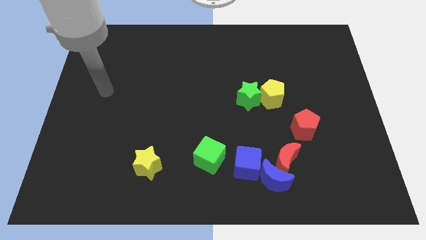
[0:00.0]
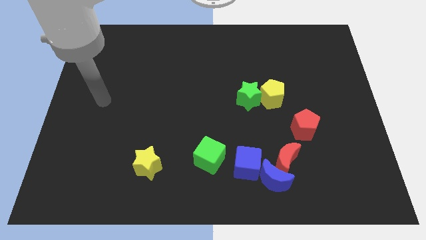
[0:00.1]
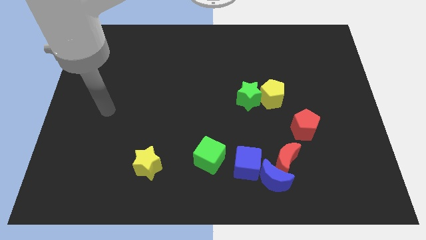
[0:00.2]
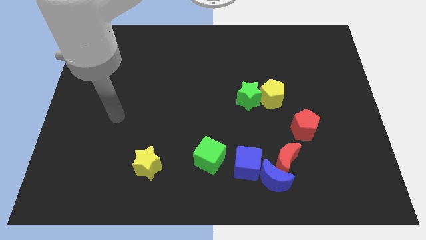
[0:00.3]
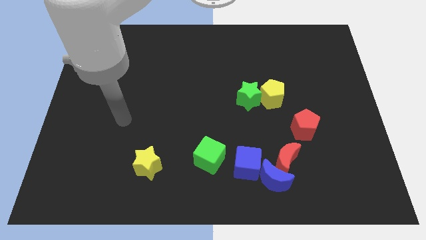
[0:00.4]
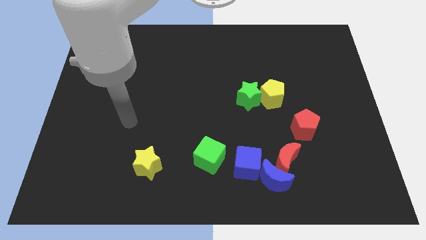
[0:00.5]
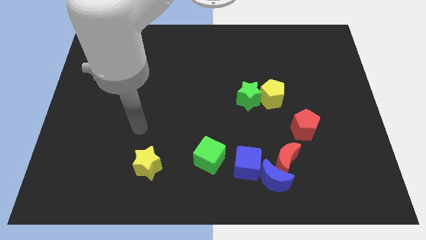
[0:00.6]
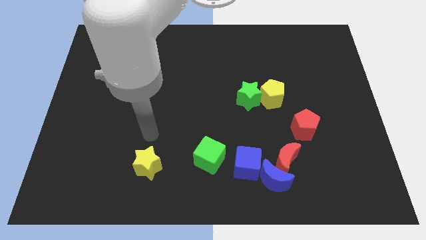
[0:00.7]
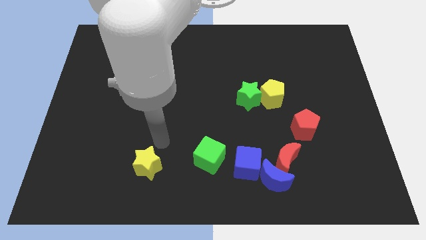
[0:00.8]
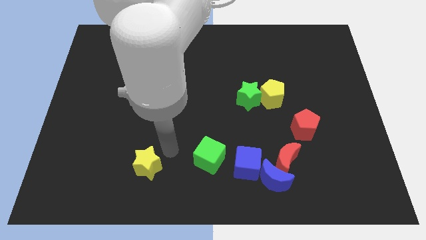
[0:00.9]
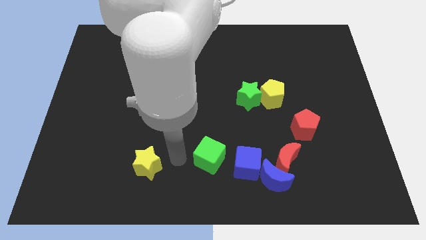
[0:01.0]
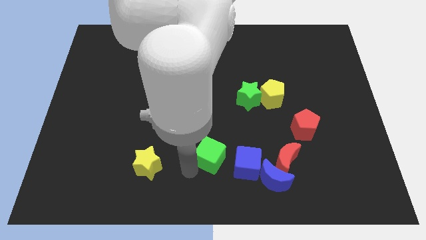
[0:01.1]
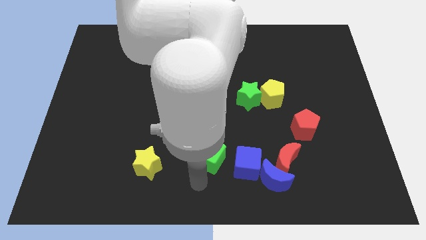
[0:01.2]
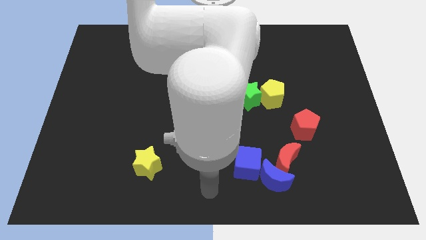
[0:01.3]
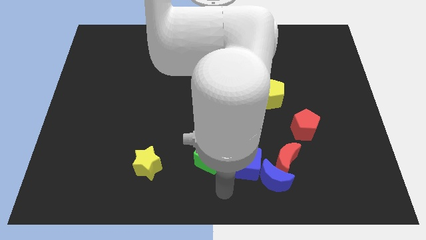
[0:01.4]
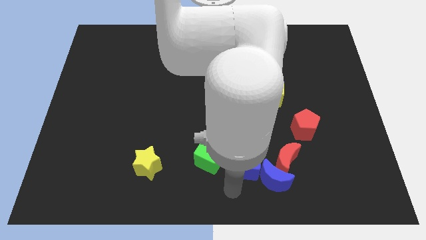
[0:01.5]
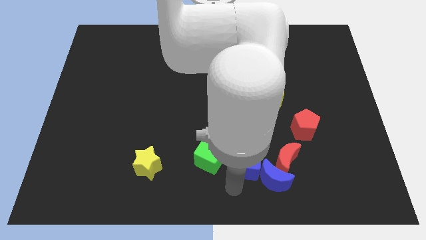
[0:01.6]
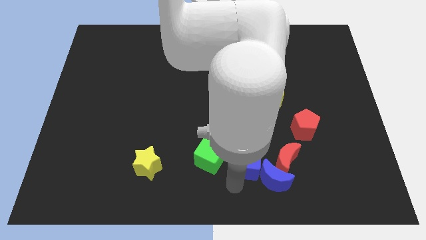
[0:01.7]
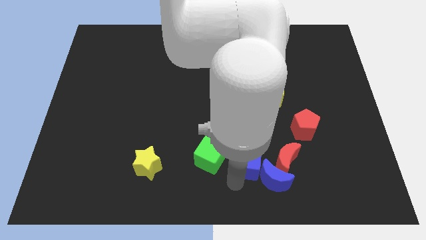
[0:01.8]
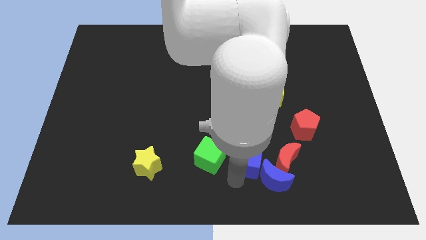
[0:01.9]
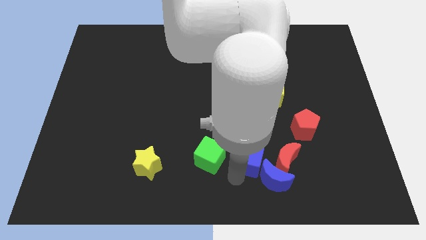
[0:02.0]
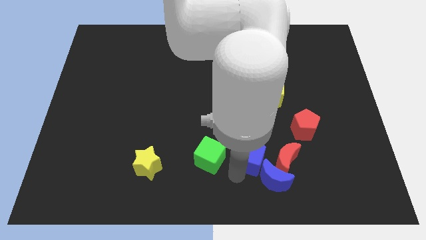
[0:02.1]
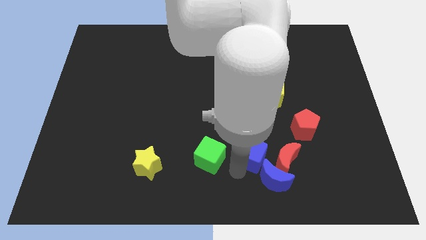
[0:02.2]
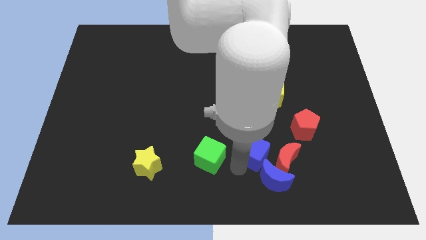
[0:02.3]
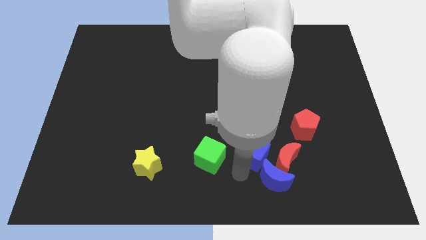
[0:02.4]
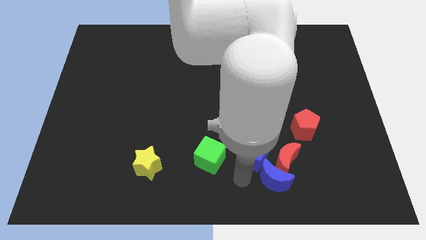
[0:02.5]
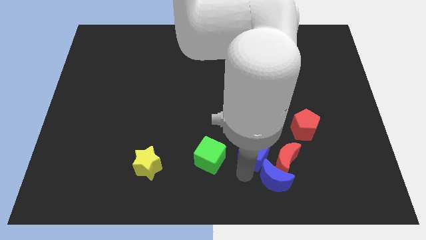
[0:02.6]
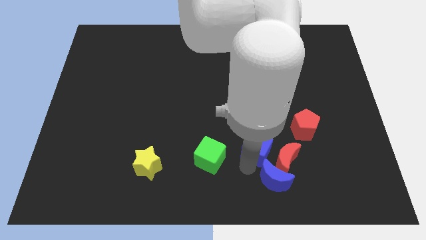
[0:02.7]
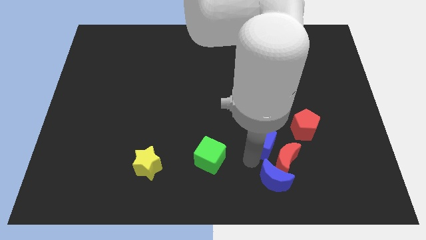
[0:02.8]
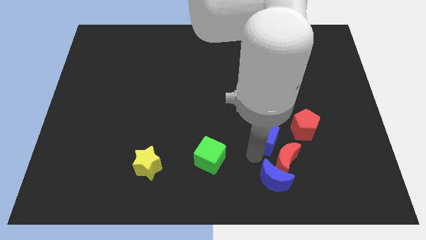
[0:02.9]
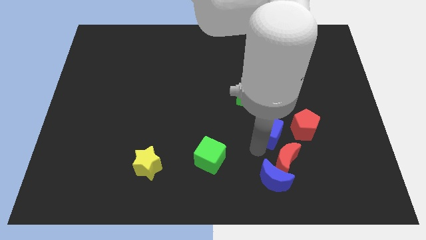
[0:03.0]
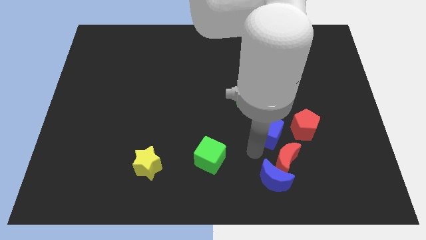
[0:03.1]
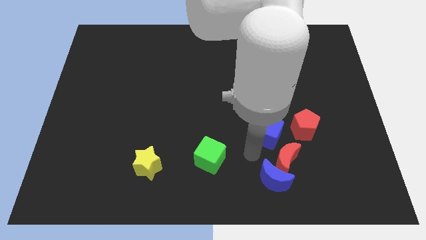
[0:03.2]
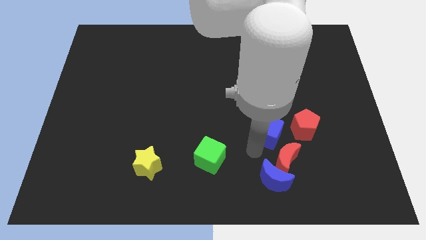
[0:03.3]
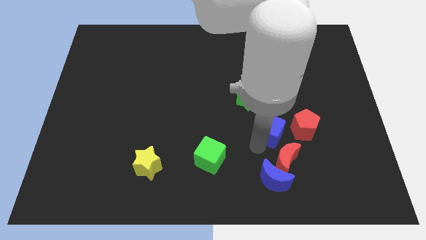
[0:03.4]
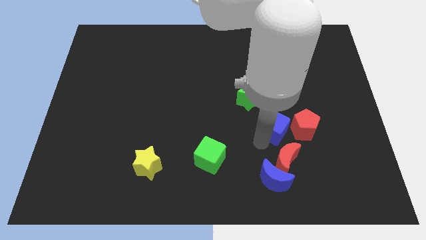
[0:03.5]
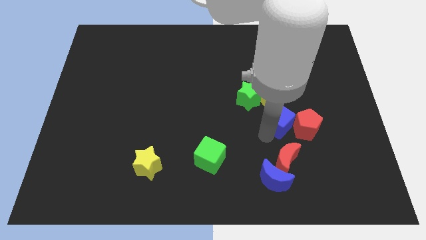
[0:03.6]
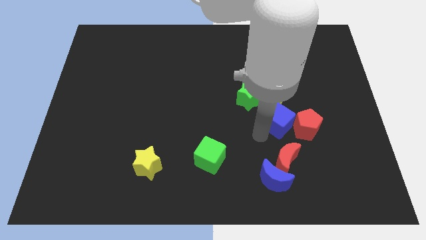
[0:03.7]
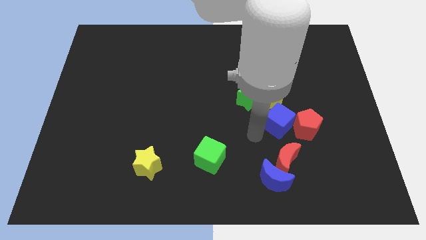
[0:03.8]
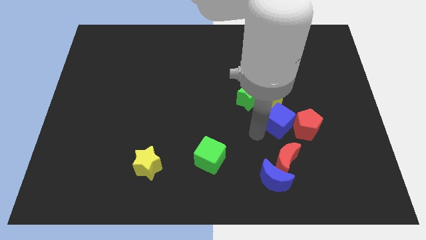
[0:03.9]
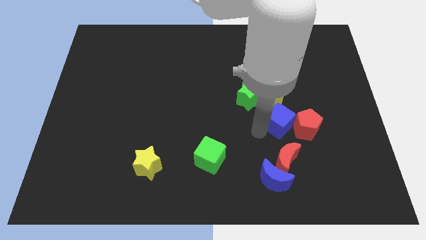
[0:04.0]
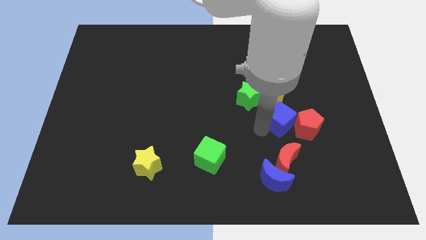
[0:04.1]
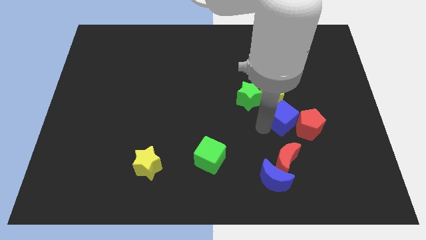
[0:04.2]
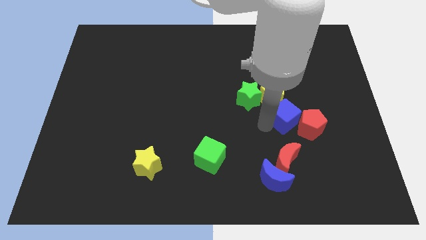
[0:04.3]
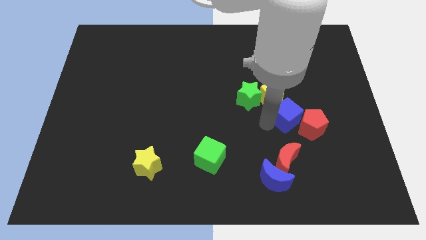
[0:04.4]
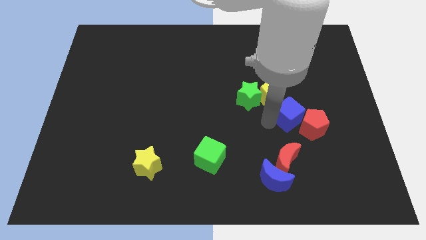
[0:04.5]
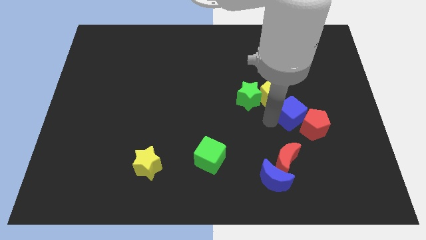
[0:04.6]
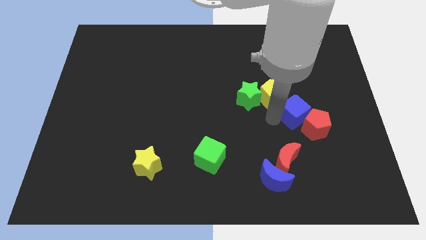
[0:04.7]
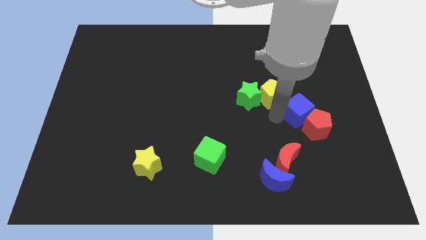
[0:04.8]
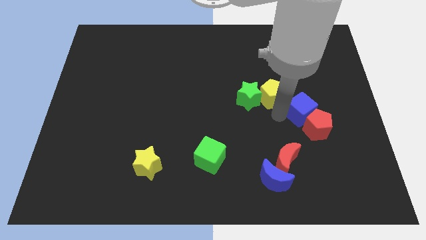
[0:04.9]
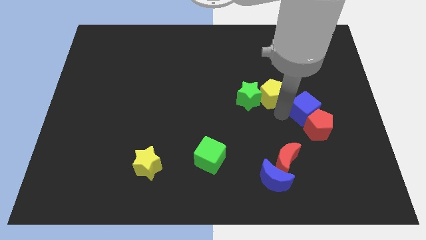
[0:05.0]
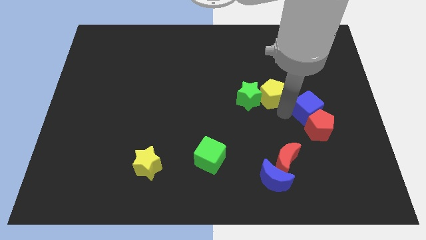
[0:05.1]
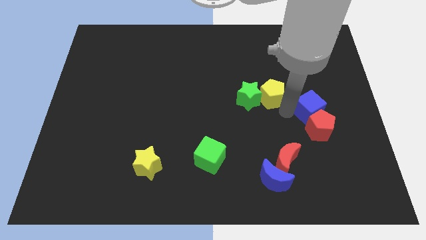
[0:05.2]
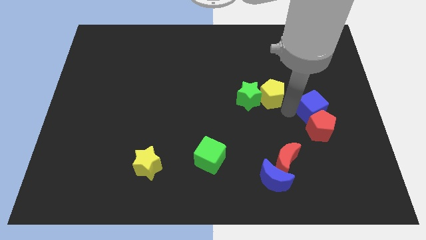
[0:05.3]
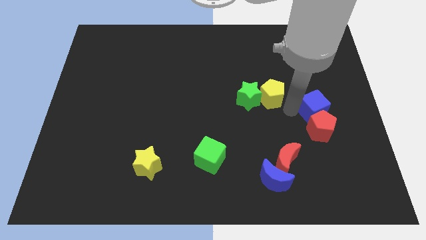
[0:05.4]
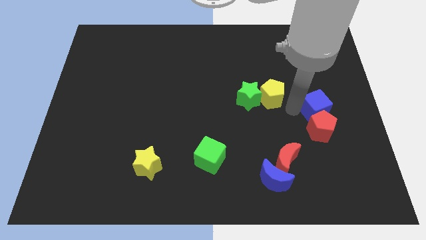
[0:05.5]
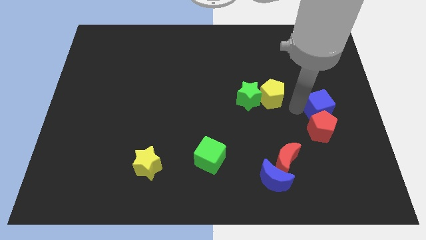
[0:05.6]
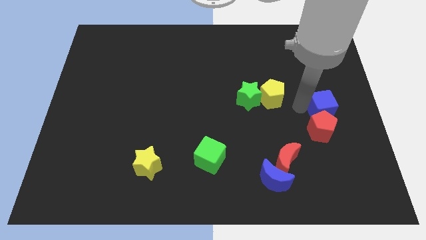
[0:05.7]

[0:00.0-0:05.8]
put the blue cube to the right side of the board

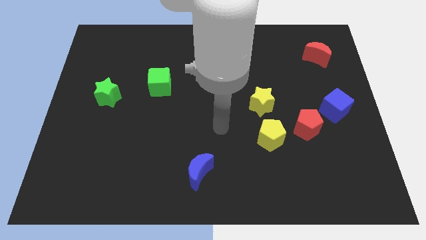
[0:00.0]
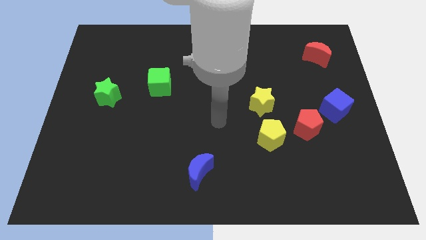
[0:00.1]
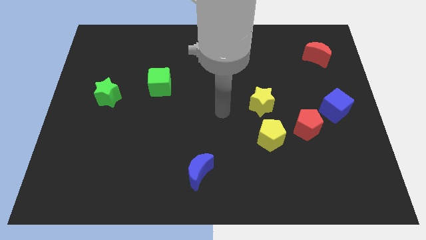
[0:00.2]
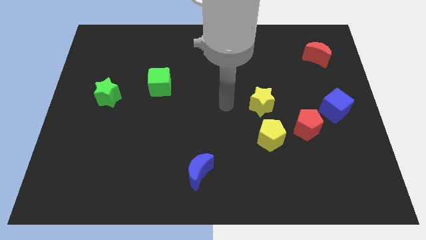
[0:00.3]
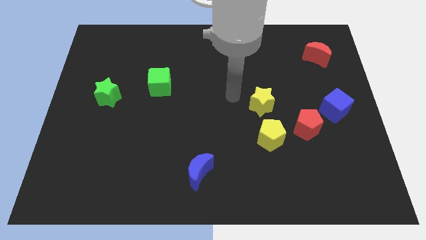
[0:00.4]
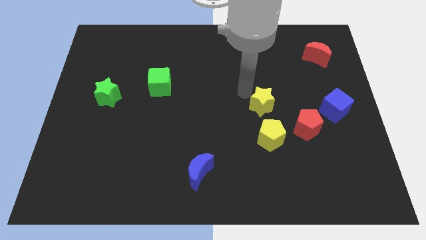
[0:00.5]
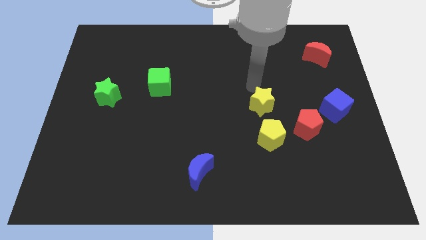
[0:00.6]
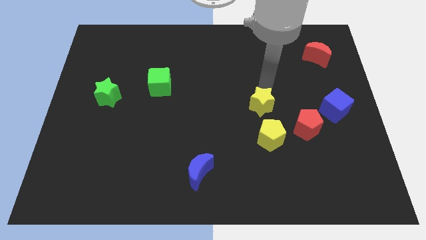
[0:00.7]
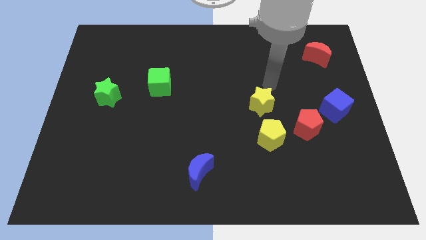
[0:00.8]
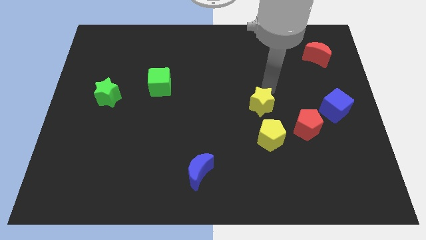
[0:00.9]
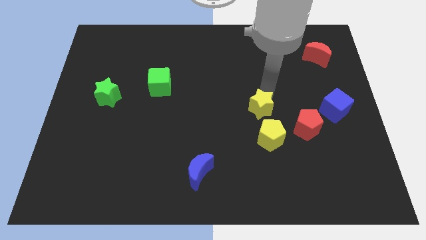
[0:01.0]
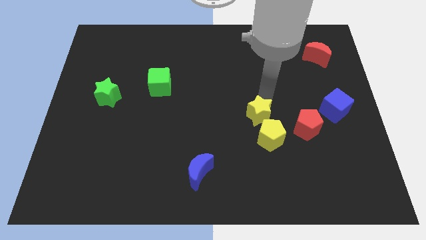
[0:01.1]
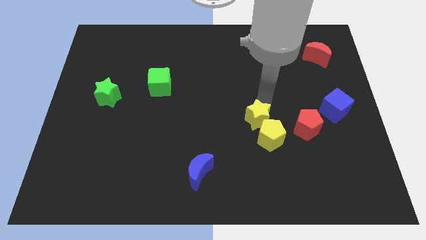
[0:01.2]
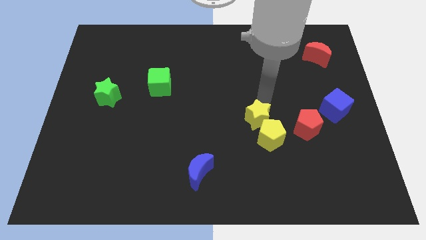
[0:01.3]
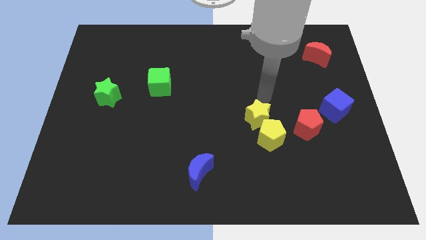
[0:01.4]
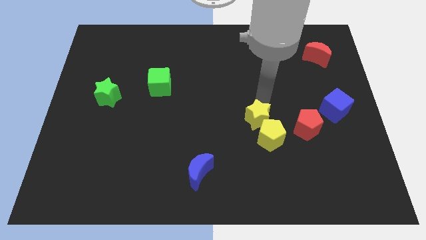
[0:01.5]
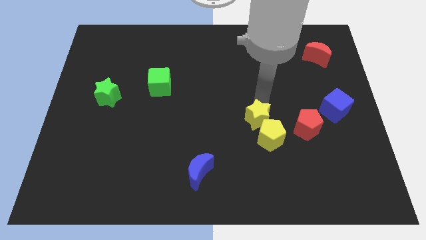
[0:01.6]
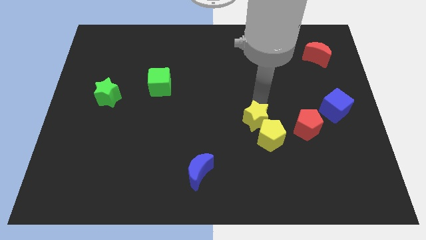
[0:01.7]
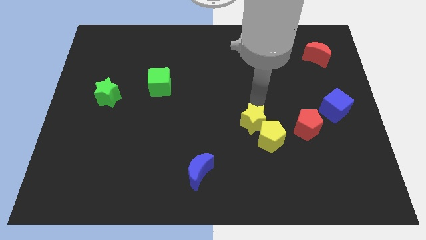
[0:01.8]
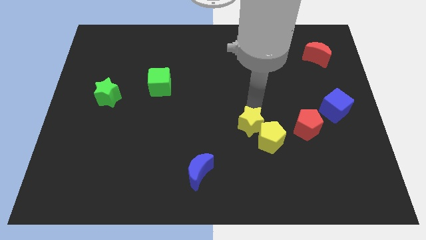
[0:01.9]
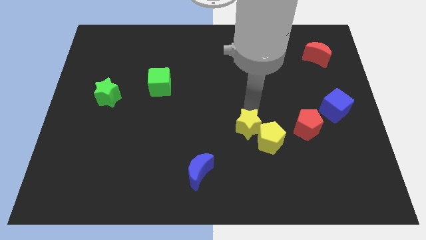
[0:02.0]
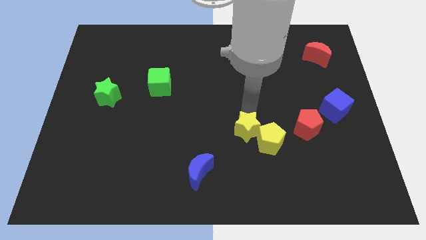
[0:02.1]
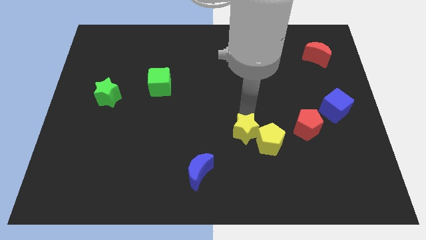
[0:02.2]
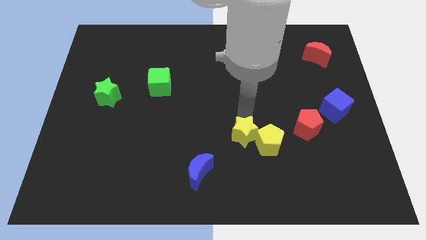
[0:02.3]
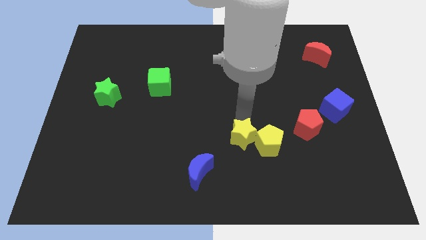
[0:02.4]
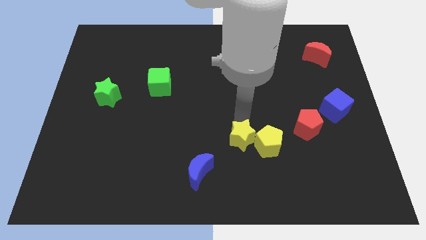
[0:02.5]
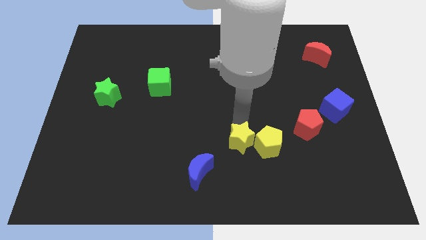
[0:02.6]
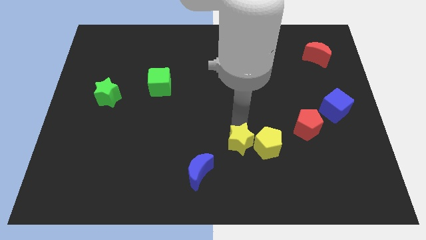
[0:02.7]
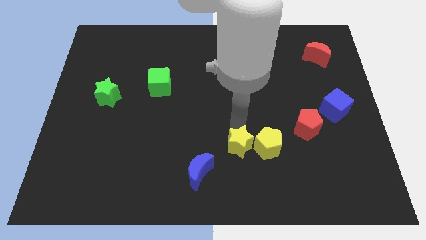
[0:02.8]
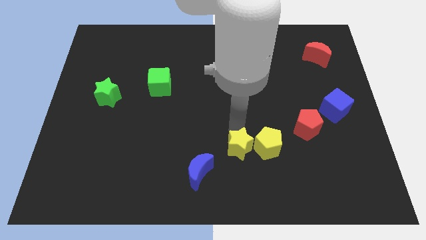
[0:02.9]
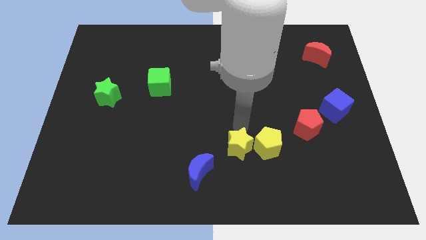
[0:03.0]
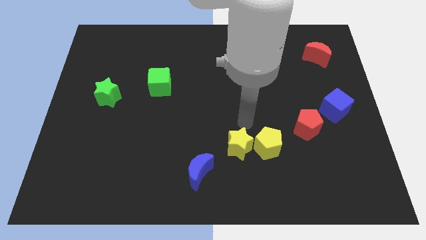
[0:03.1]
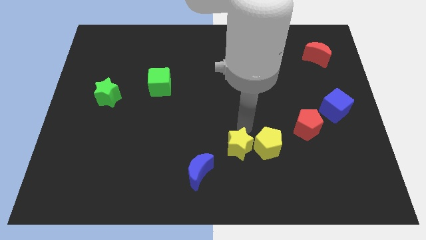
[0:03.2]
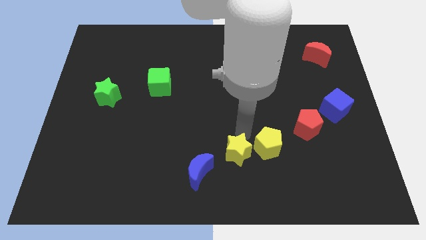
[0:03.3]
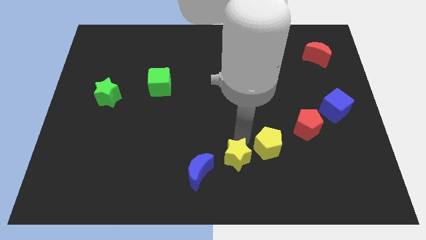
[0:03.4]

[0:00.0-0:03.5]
slide the yellow star to the bottom side
